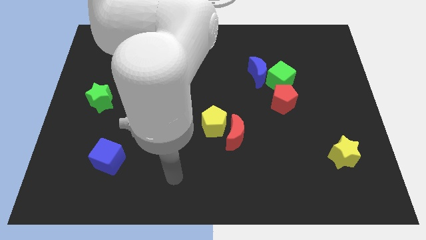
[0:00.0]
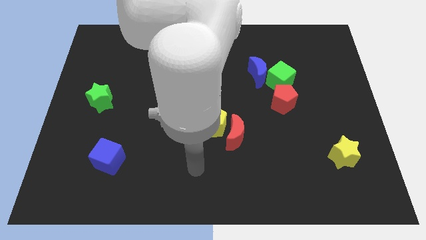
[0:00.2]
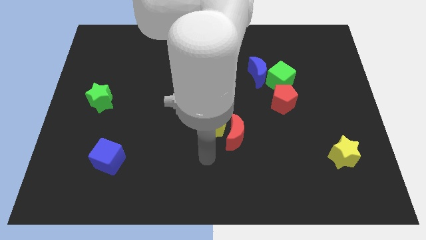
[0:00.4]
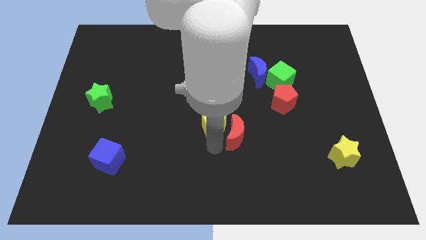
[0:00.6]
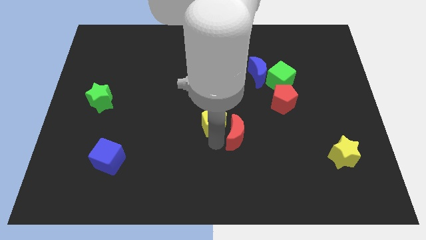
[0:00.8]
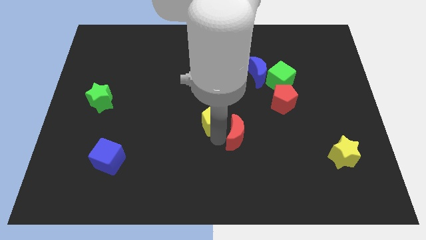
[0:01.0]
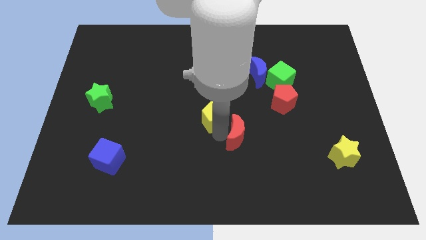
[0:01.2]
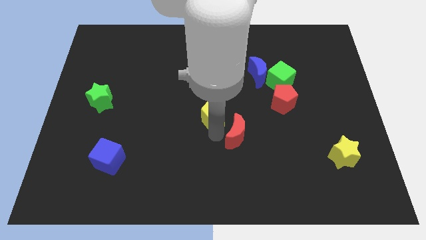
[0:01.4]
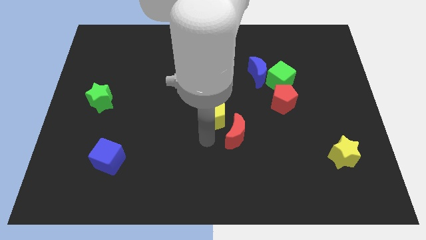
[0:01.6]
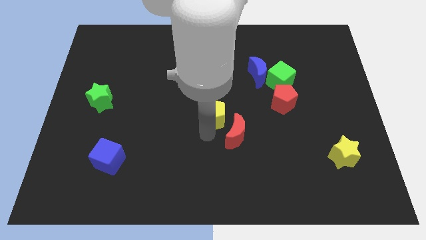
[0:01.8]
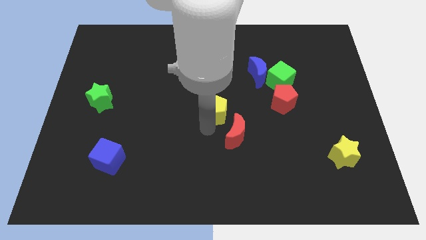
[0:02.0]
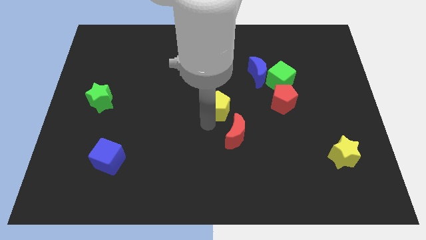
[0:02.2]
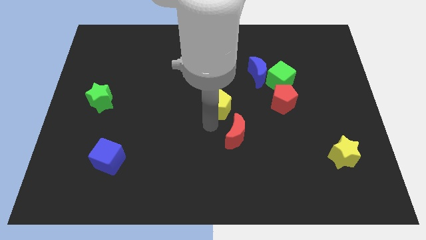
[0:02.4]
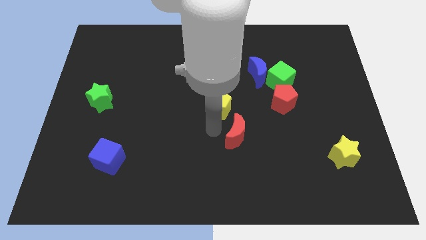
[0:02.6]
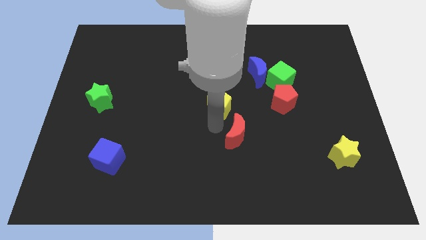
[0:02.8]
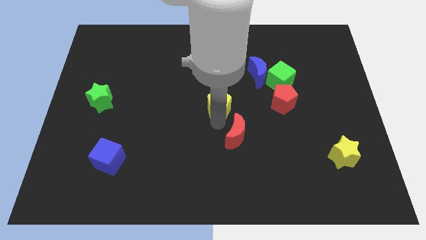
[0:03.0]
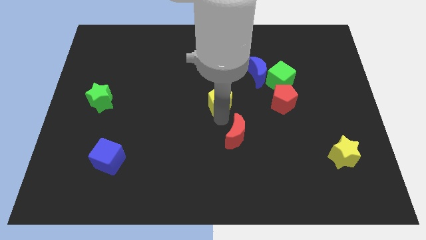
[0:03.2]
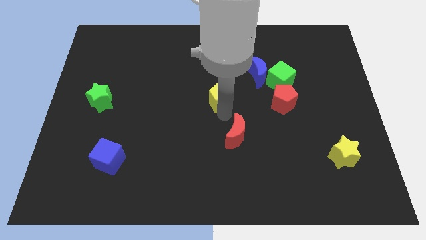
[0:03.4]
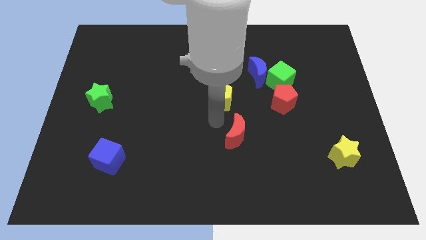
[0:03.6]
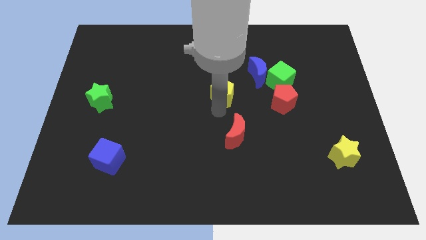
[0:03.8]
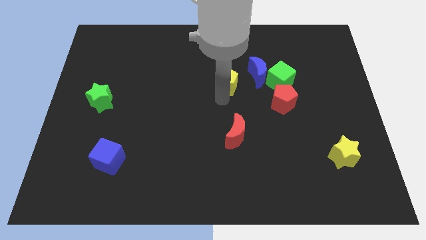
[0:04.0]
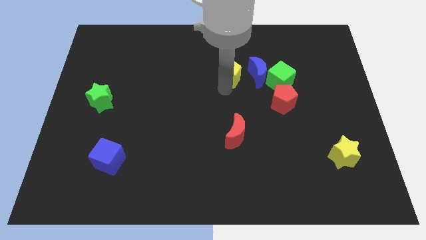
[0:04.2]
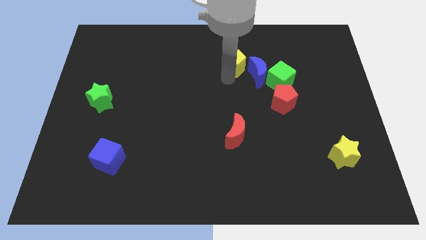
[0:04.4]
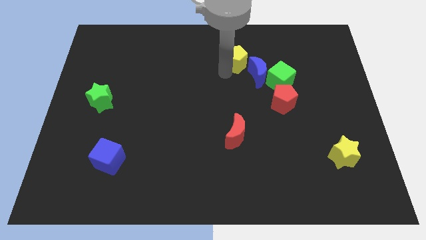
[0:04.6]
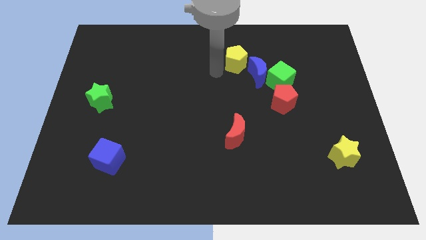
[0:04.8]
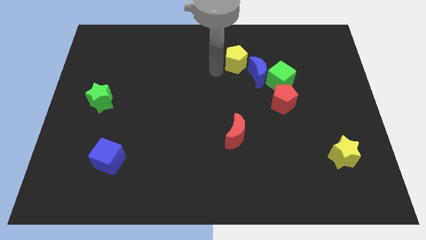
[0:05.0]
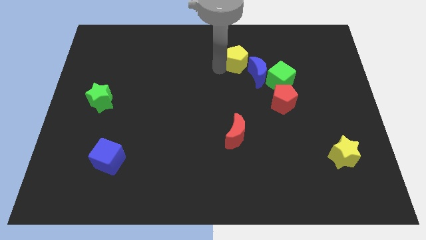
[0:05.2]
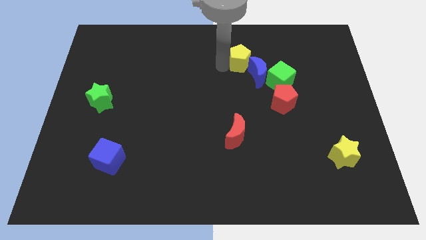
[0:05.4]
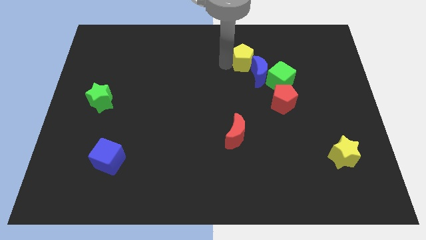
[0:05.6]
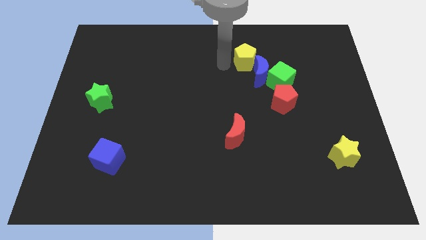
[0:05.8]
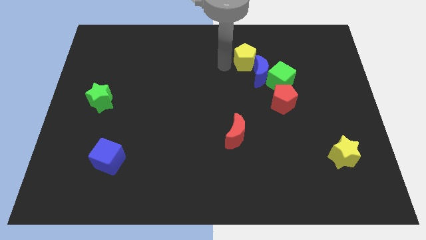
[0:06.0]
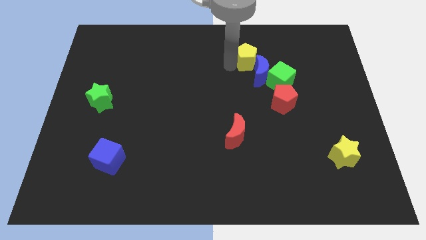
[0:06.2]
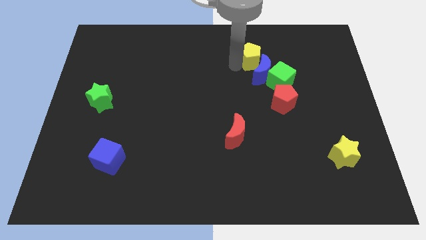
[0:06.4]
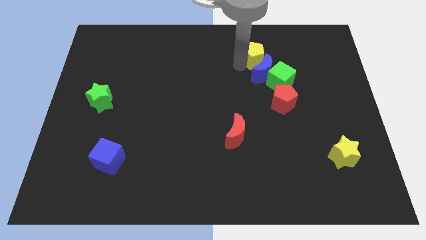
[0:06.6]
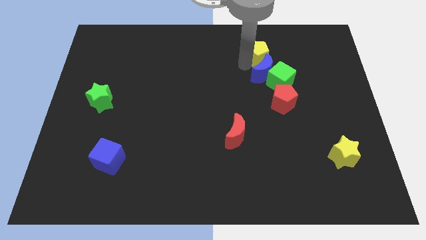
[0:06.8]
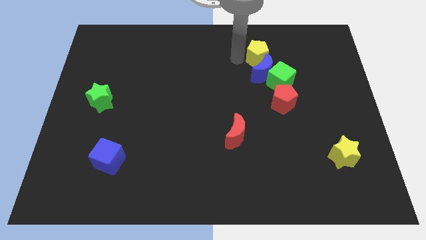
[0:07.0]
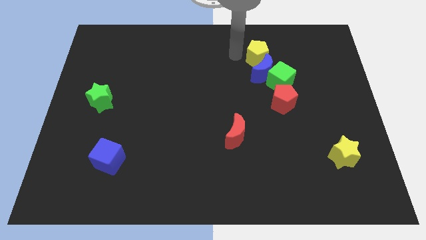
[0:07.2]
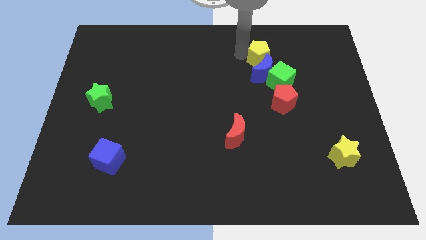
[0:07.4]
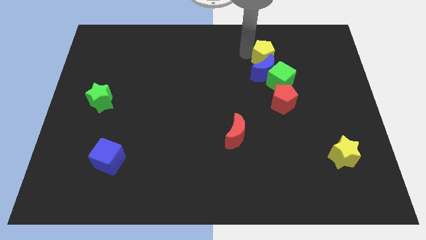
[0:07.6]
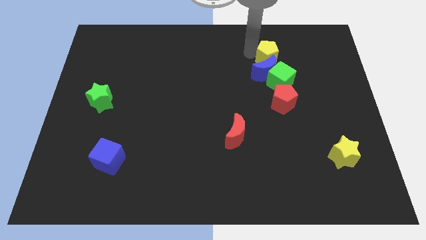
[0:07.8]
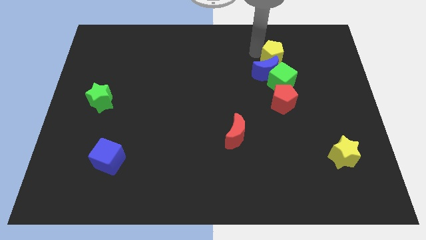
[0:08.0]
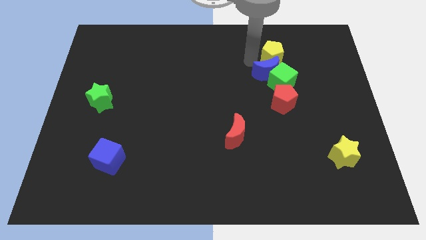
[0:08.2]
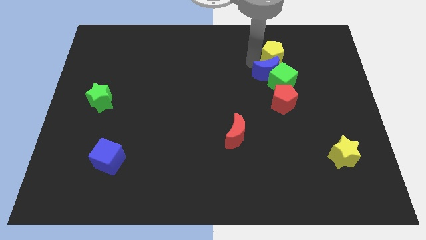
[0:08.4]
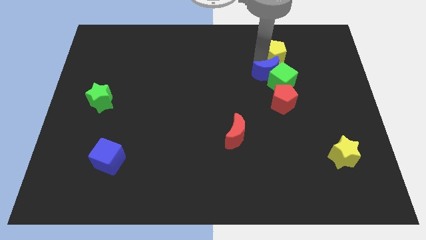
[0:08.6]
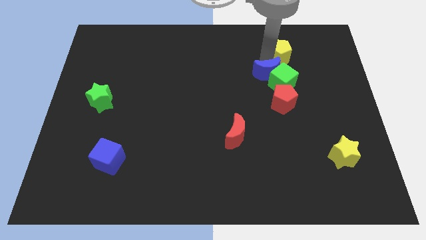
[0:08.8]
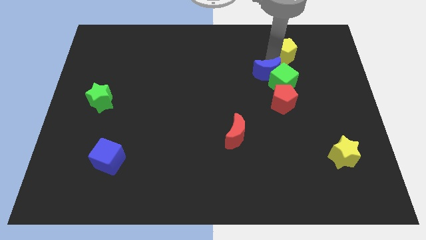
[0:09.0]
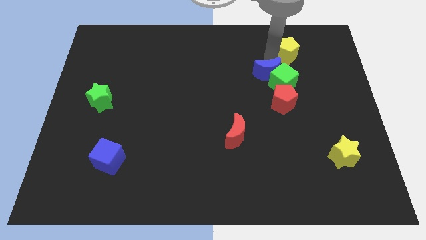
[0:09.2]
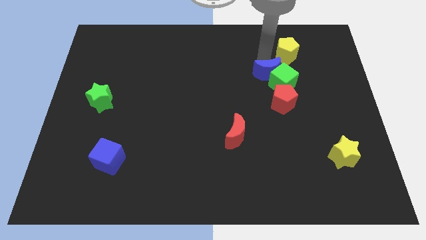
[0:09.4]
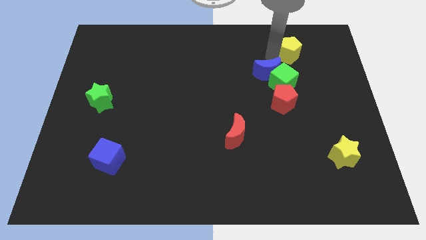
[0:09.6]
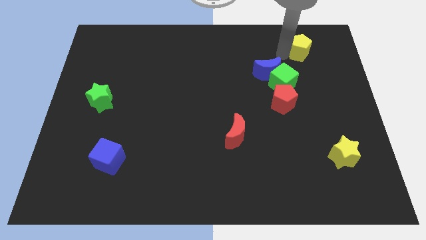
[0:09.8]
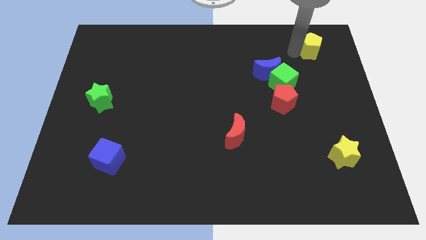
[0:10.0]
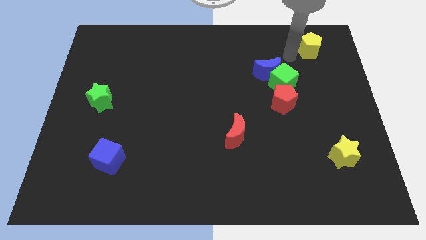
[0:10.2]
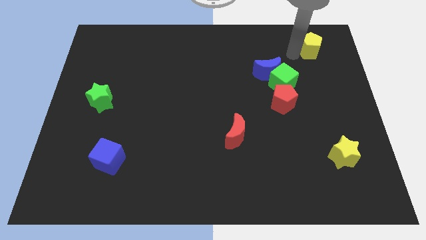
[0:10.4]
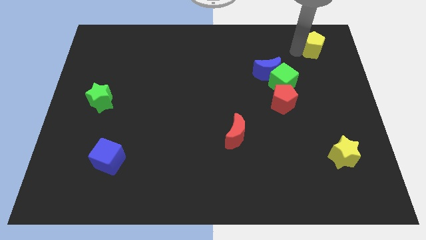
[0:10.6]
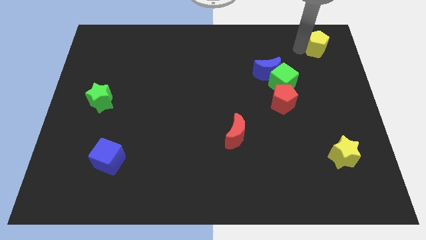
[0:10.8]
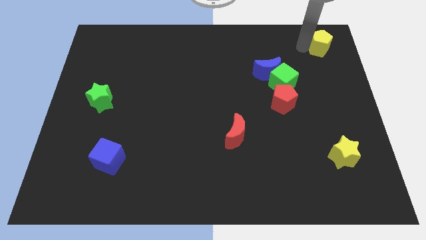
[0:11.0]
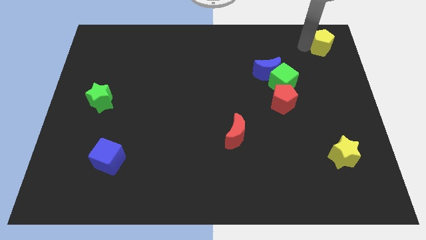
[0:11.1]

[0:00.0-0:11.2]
move the yellow pentagon to the top right corner

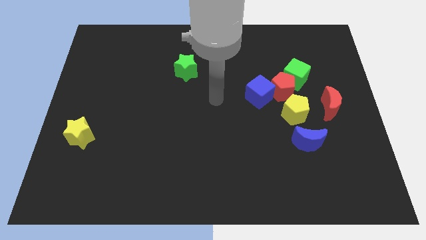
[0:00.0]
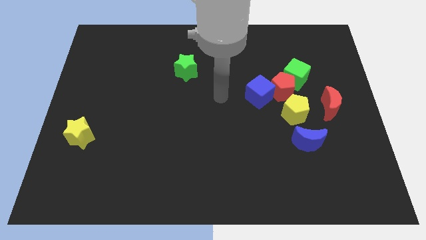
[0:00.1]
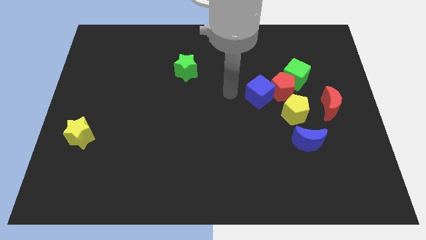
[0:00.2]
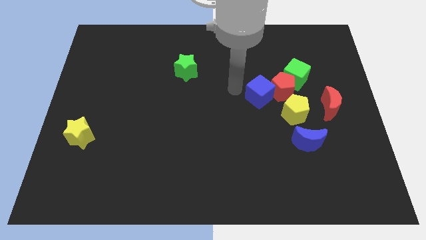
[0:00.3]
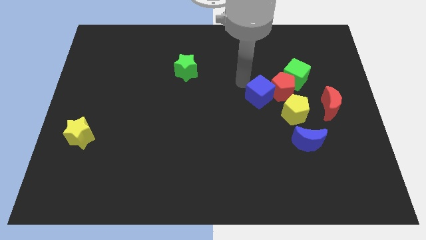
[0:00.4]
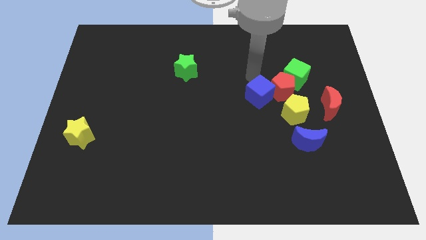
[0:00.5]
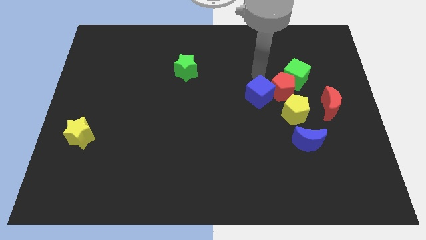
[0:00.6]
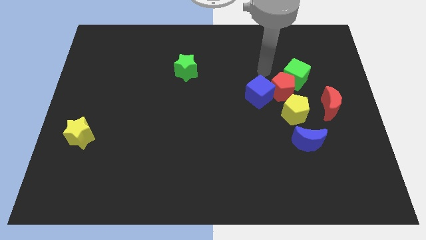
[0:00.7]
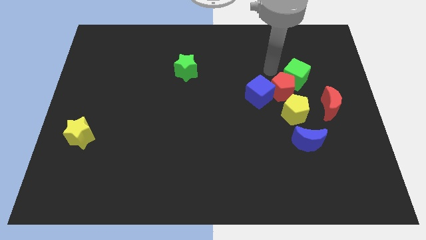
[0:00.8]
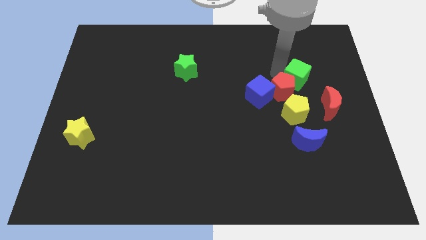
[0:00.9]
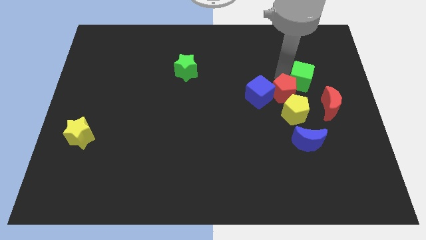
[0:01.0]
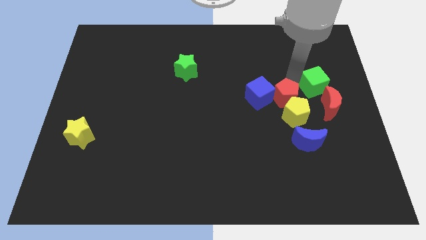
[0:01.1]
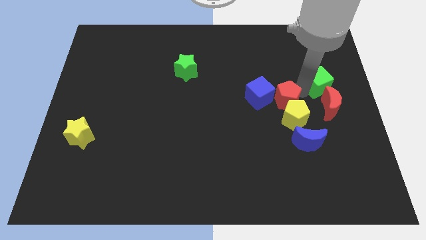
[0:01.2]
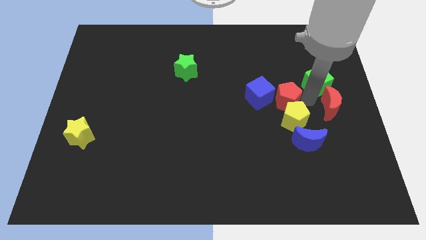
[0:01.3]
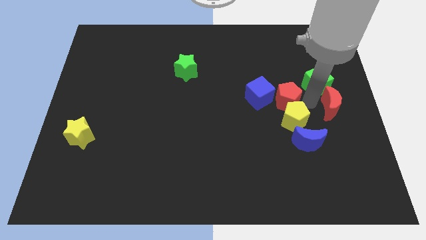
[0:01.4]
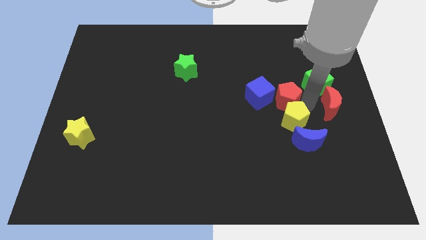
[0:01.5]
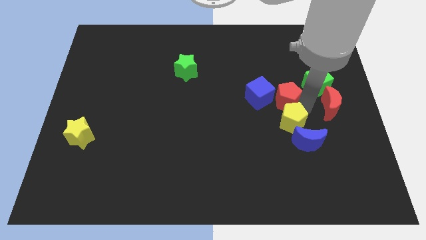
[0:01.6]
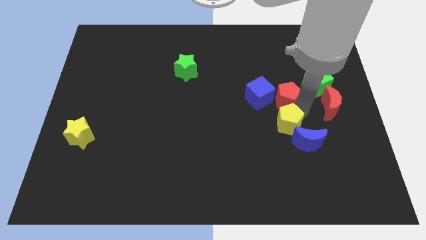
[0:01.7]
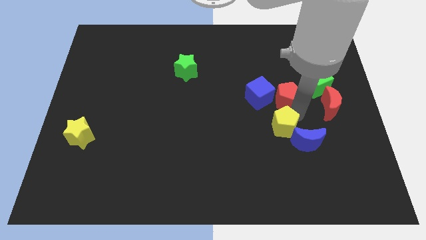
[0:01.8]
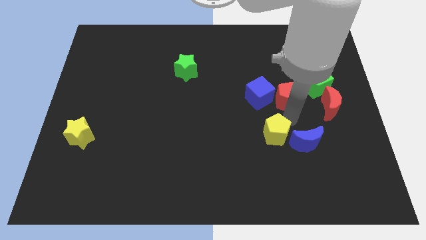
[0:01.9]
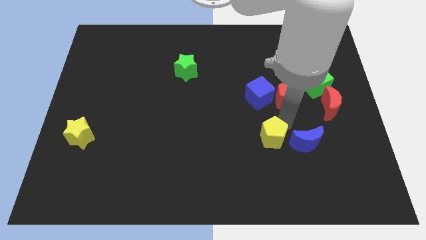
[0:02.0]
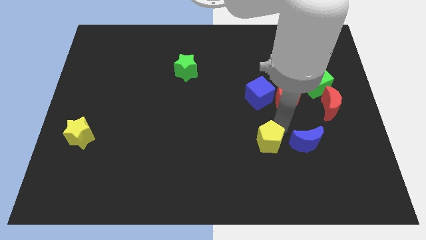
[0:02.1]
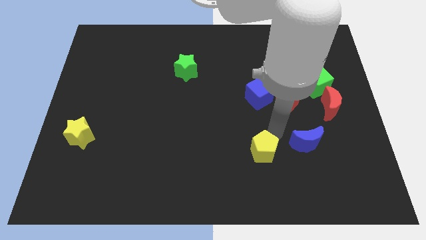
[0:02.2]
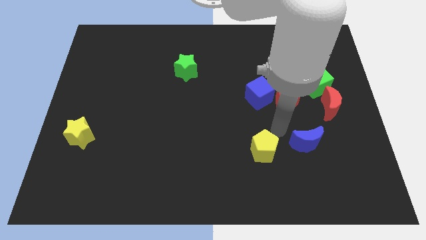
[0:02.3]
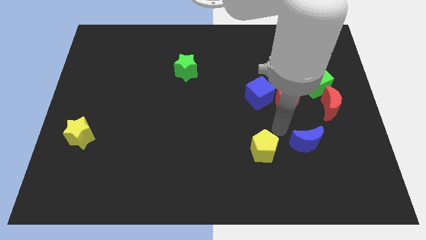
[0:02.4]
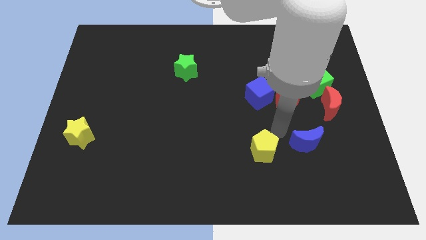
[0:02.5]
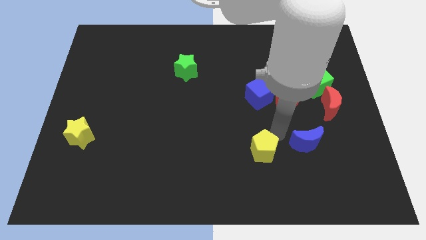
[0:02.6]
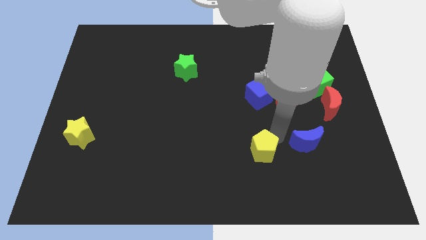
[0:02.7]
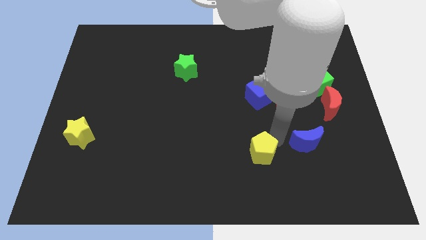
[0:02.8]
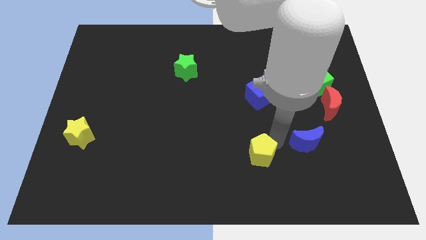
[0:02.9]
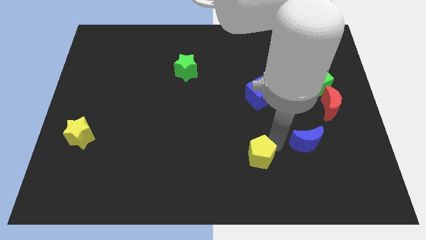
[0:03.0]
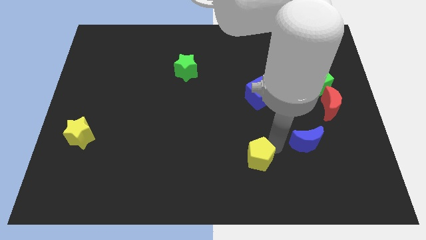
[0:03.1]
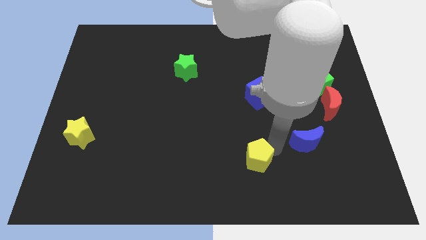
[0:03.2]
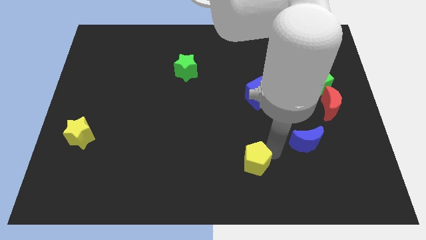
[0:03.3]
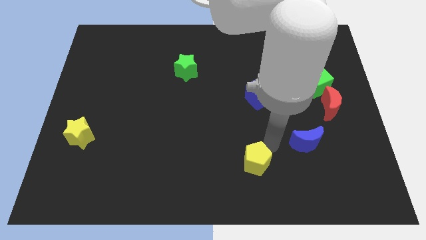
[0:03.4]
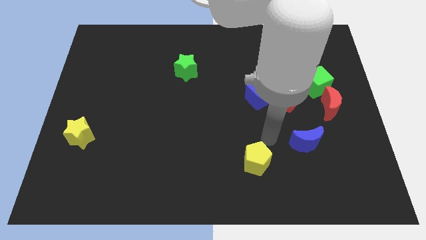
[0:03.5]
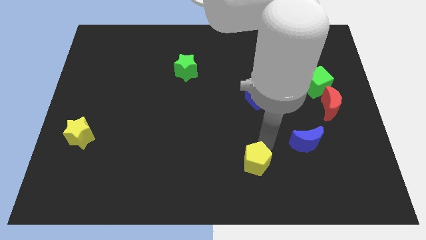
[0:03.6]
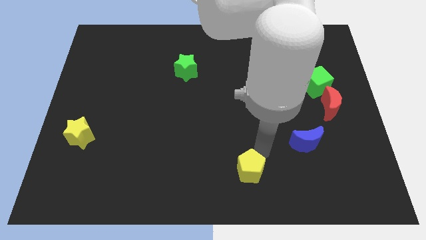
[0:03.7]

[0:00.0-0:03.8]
move the yellow pentagon to the bottom
